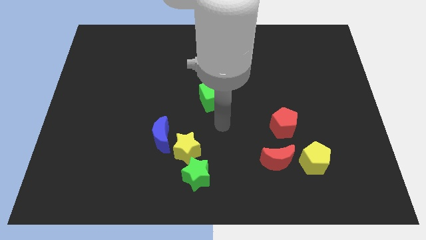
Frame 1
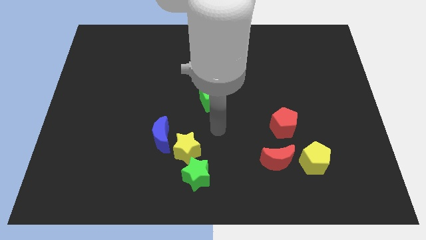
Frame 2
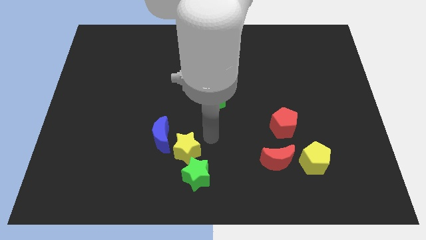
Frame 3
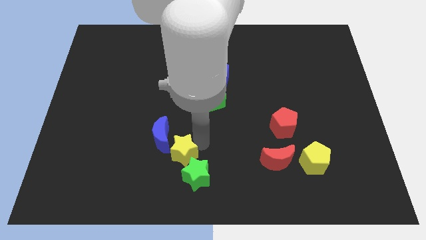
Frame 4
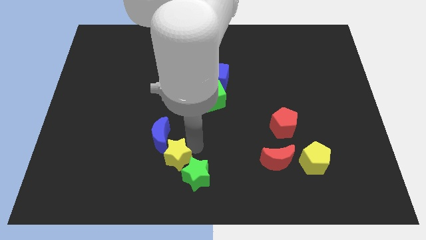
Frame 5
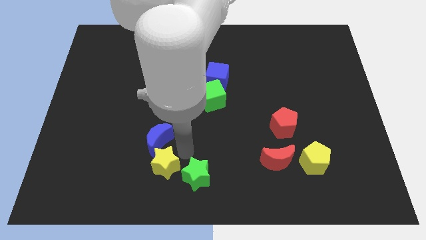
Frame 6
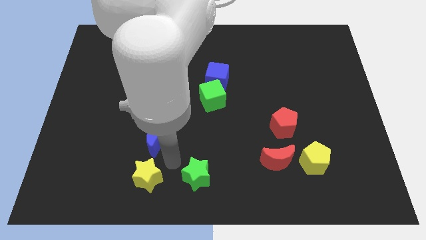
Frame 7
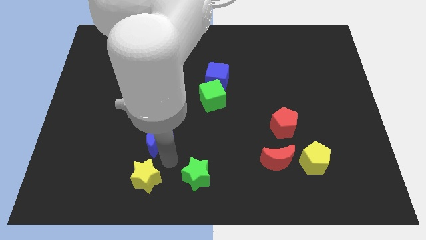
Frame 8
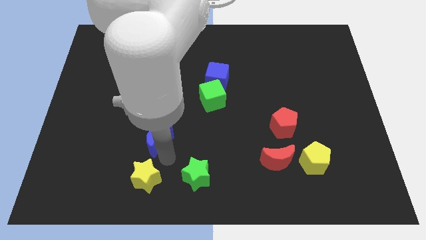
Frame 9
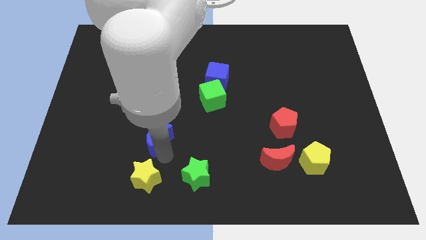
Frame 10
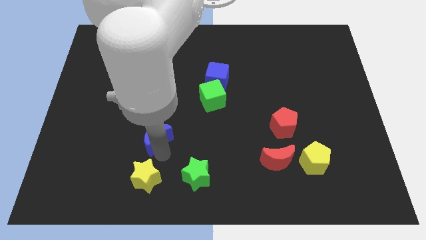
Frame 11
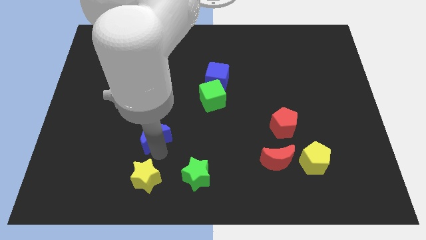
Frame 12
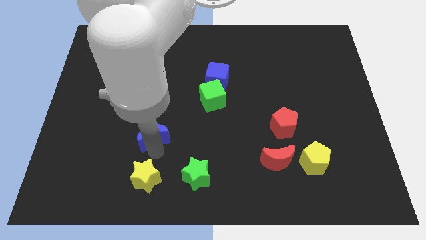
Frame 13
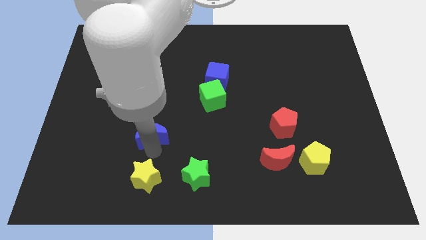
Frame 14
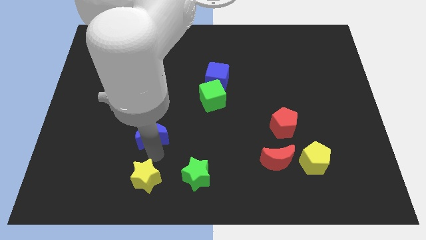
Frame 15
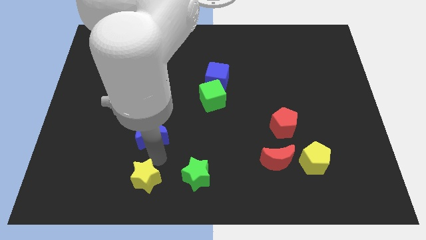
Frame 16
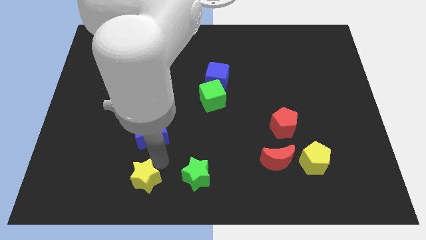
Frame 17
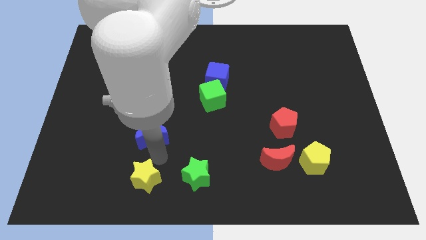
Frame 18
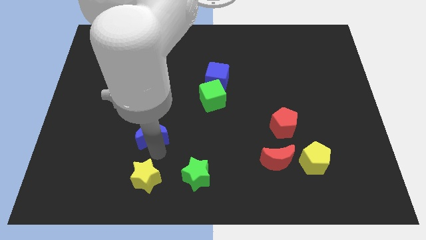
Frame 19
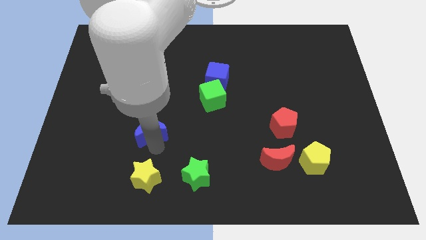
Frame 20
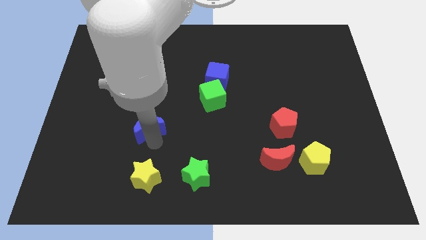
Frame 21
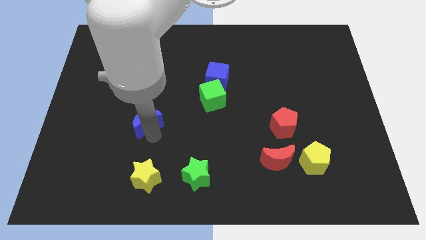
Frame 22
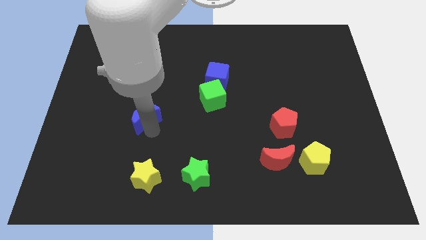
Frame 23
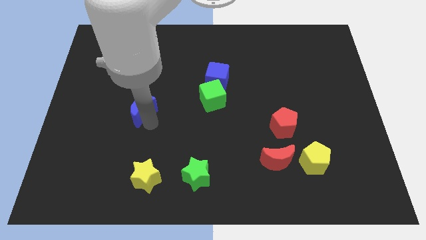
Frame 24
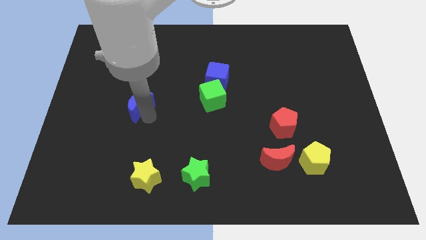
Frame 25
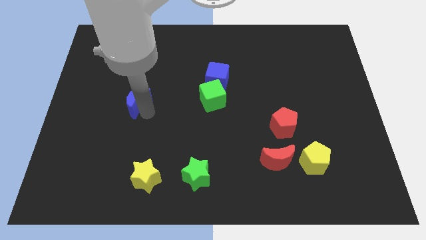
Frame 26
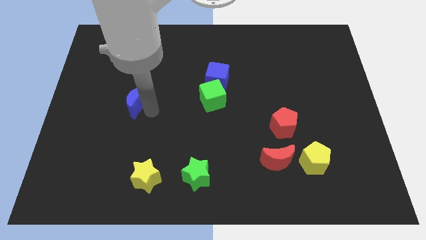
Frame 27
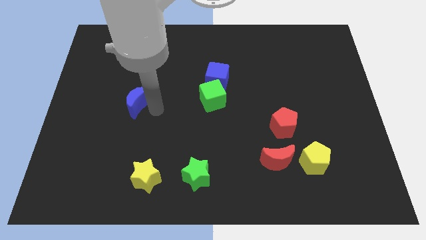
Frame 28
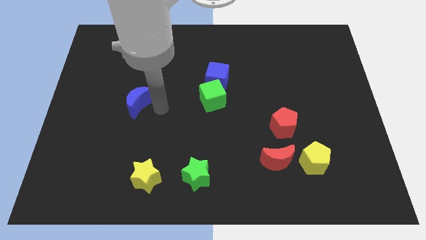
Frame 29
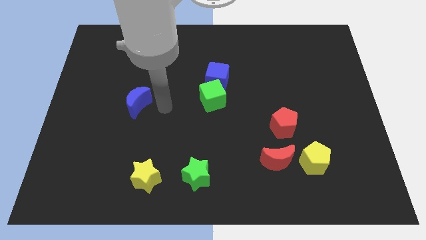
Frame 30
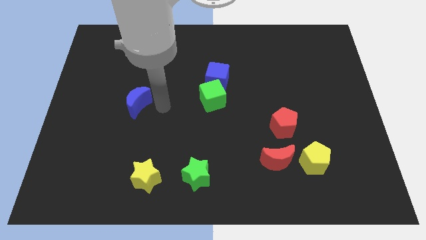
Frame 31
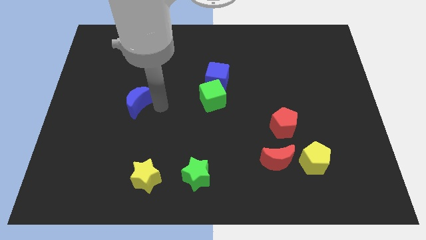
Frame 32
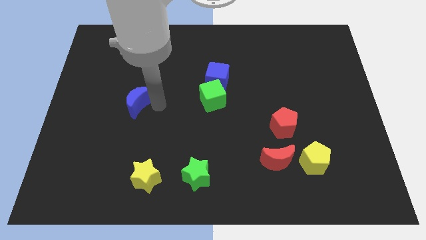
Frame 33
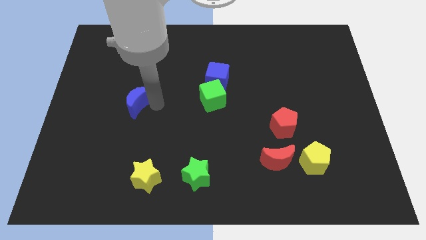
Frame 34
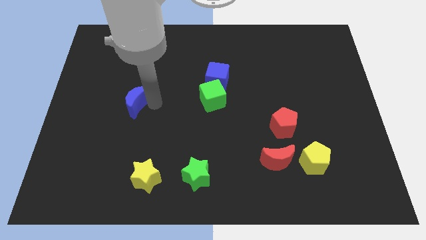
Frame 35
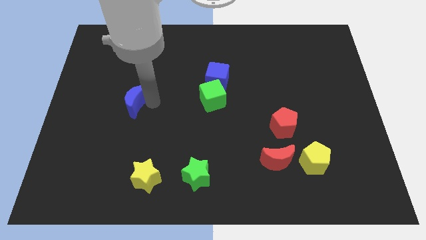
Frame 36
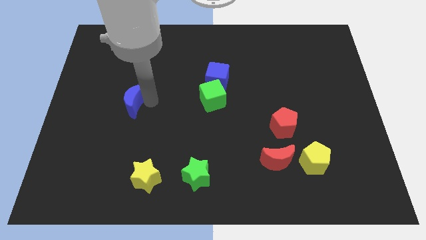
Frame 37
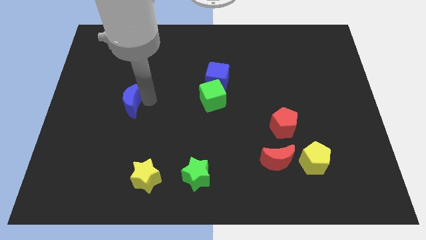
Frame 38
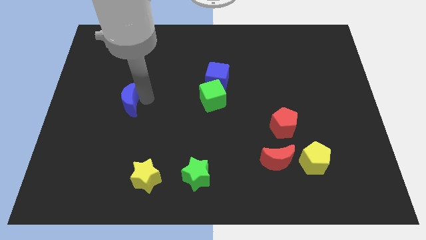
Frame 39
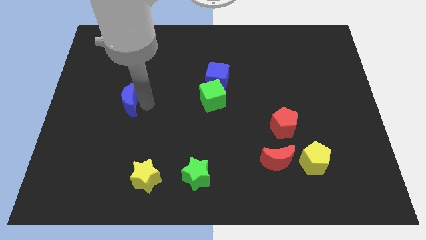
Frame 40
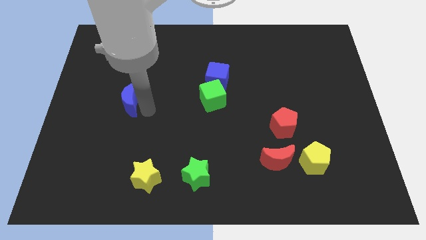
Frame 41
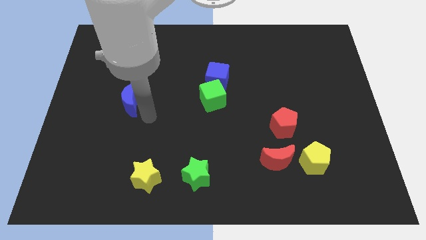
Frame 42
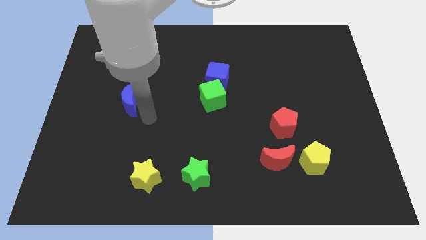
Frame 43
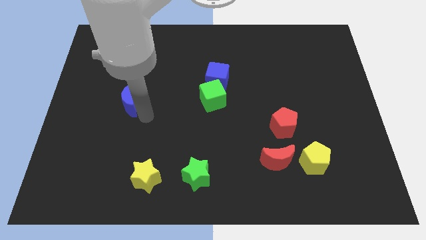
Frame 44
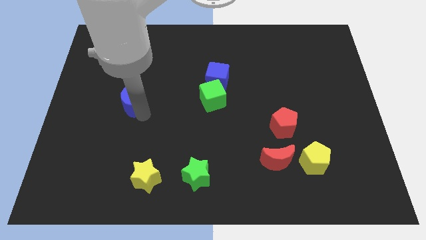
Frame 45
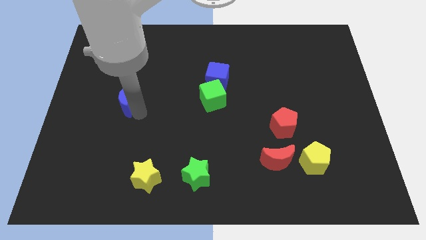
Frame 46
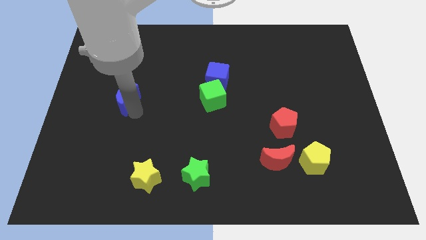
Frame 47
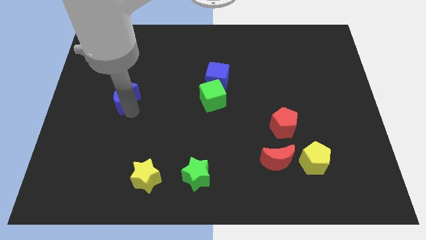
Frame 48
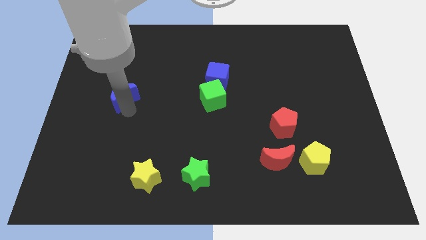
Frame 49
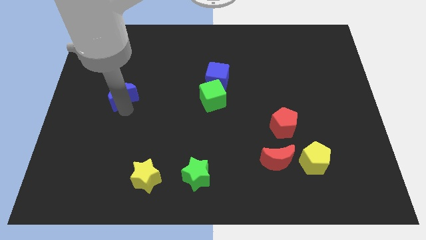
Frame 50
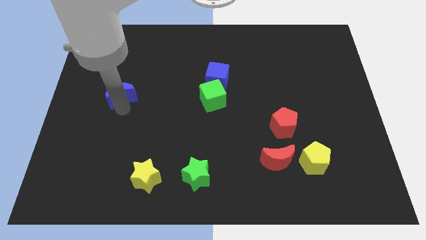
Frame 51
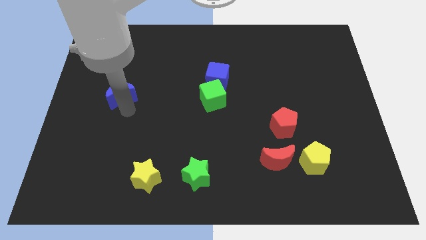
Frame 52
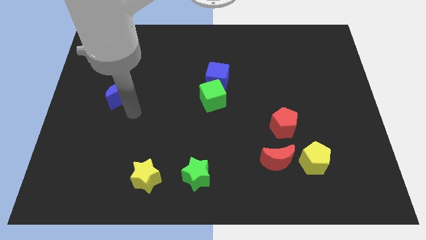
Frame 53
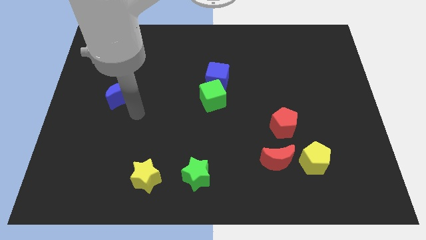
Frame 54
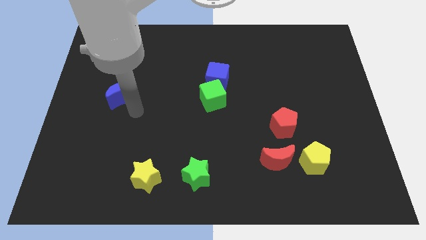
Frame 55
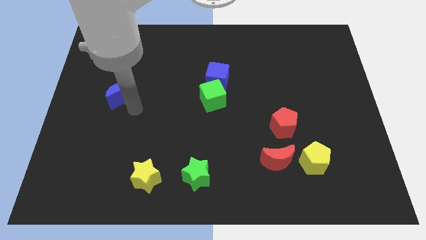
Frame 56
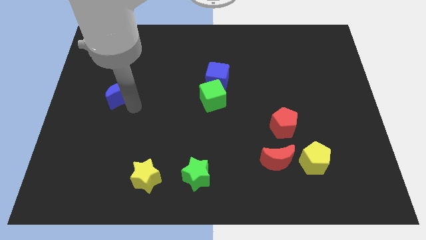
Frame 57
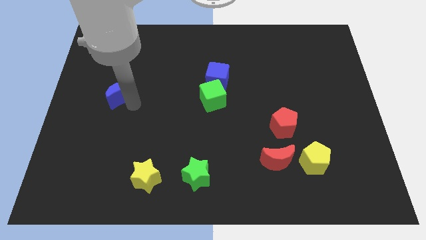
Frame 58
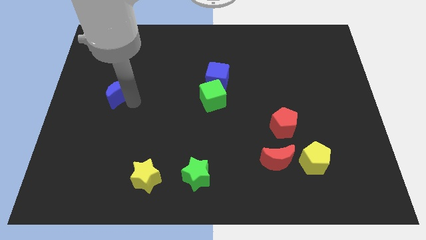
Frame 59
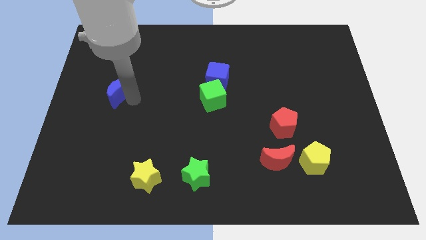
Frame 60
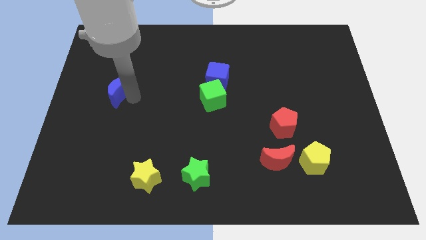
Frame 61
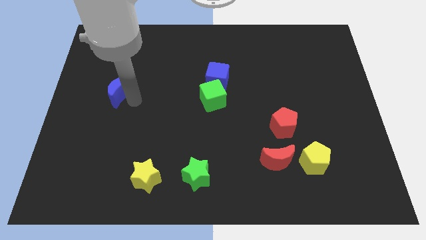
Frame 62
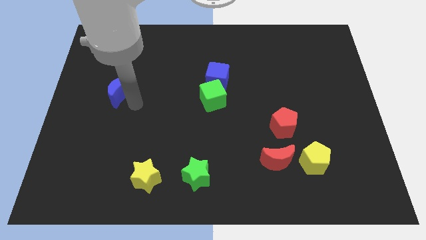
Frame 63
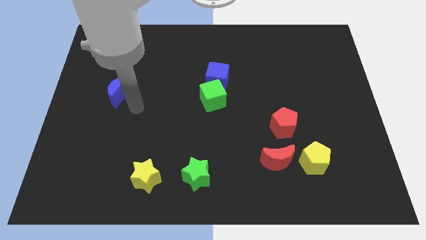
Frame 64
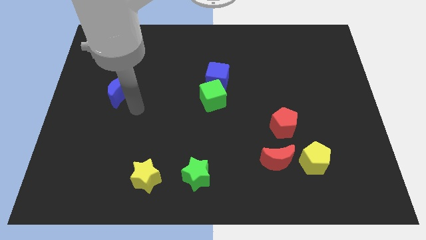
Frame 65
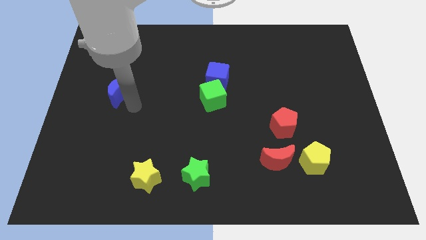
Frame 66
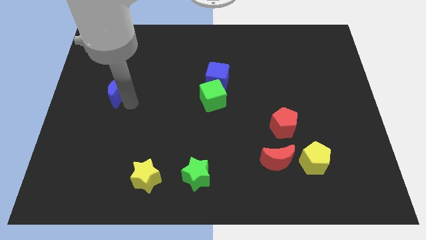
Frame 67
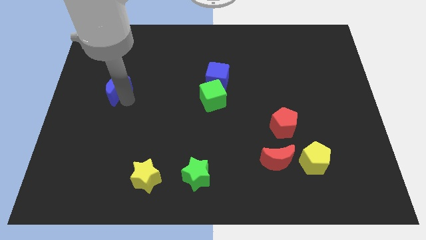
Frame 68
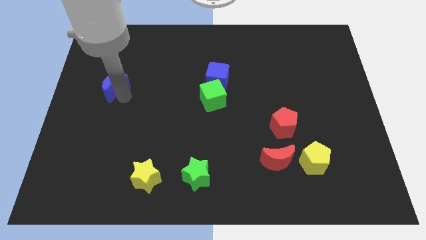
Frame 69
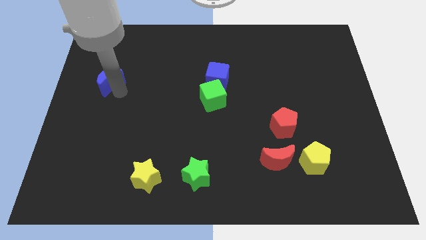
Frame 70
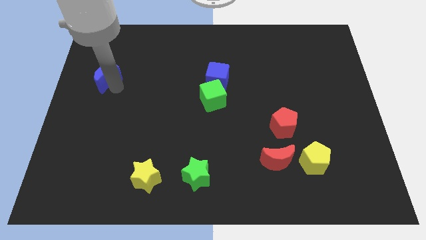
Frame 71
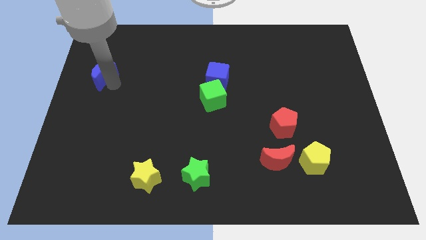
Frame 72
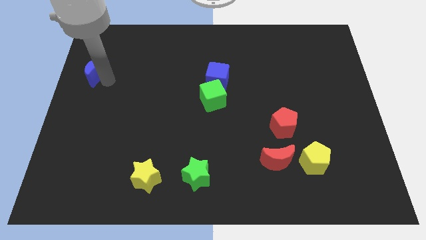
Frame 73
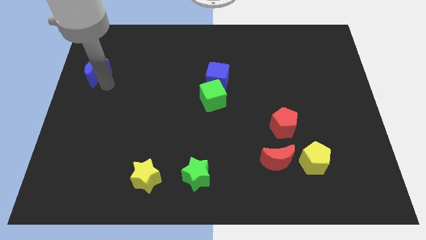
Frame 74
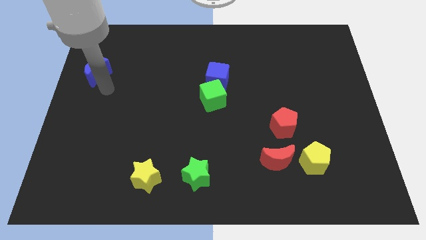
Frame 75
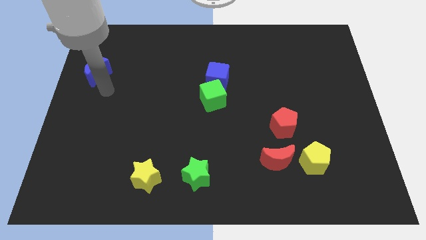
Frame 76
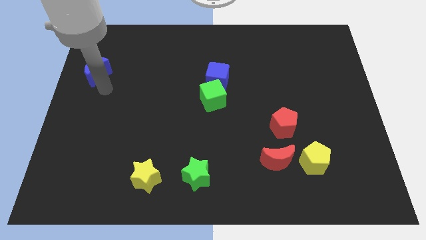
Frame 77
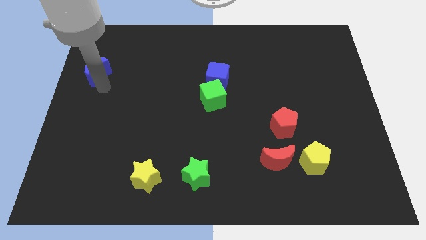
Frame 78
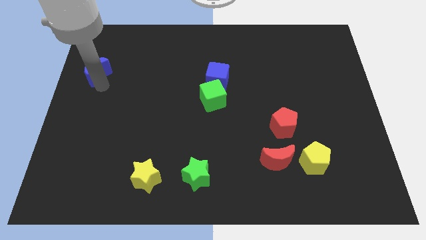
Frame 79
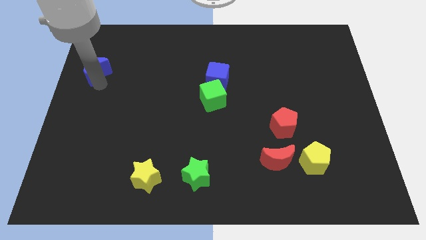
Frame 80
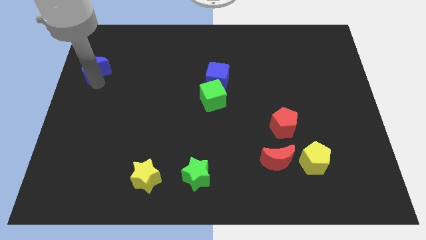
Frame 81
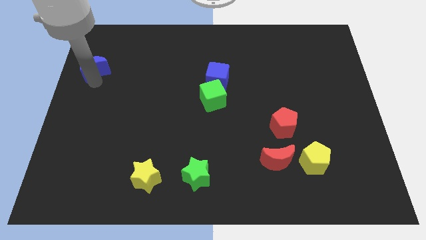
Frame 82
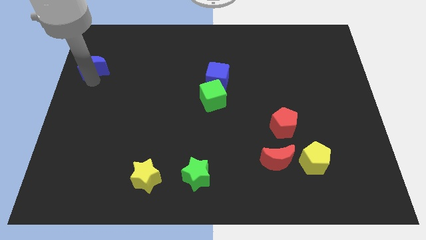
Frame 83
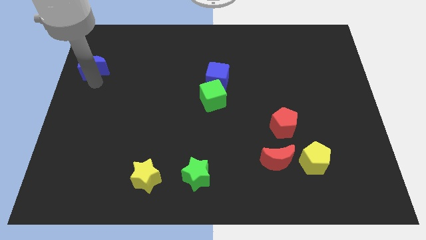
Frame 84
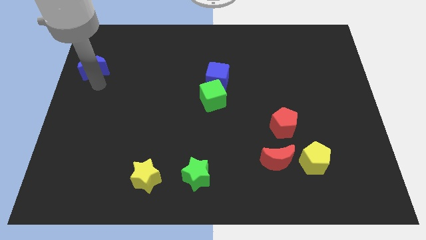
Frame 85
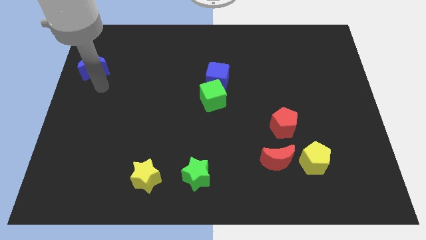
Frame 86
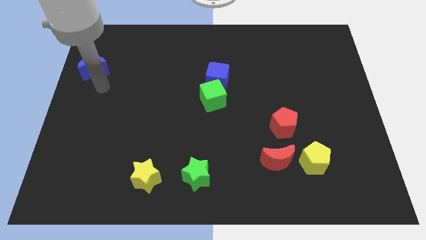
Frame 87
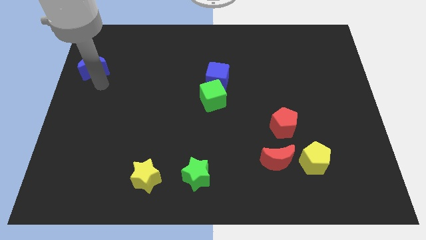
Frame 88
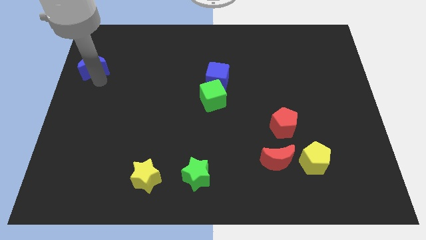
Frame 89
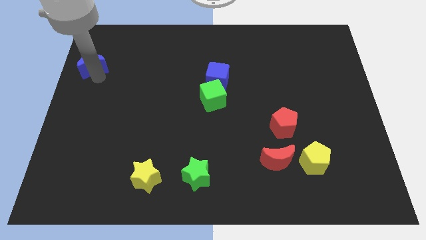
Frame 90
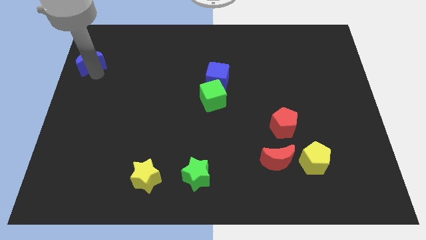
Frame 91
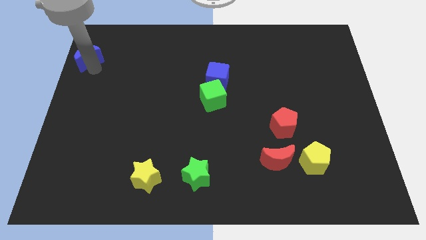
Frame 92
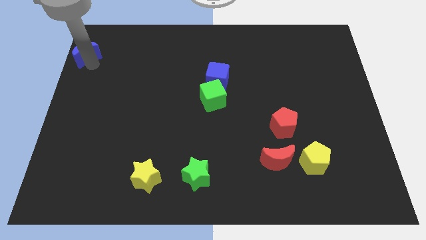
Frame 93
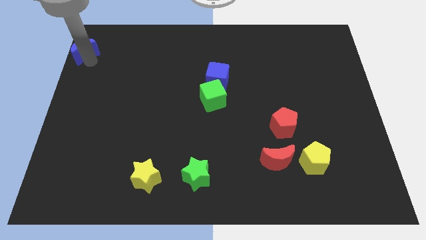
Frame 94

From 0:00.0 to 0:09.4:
slide the blue moon to the upper left corner
